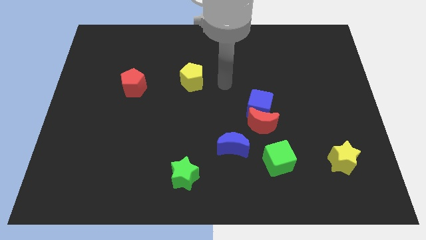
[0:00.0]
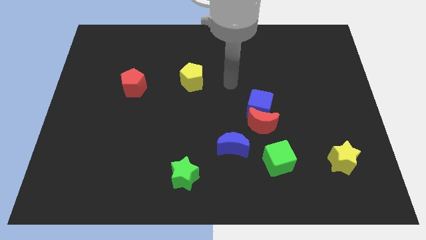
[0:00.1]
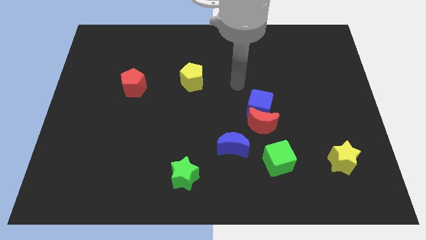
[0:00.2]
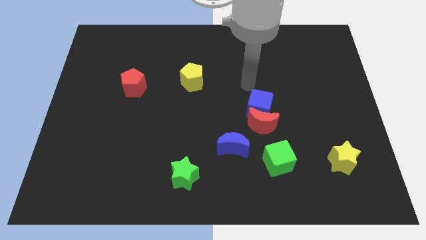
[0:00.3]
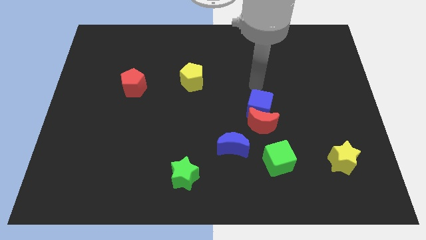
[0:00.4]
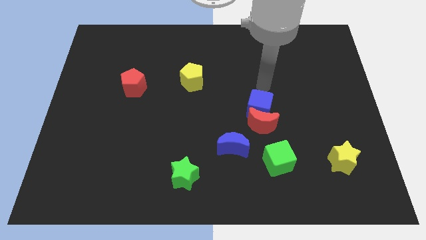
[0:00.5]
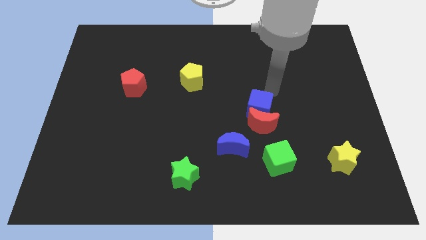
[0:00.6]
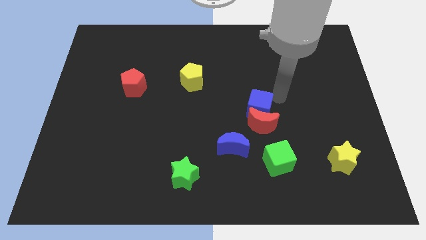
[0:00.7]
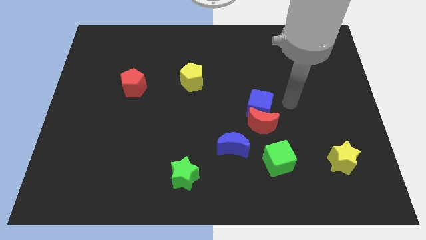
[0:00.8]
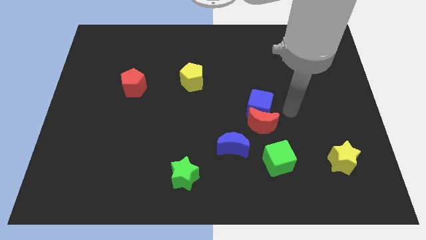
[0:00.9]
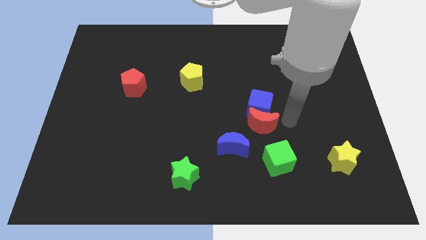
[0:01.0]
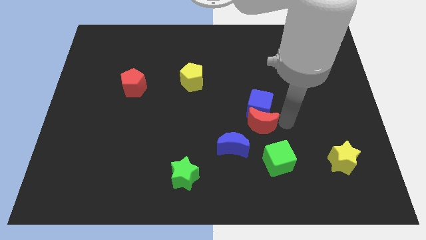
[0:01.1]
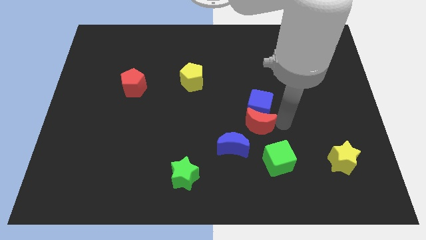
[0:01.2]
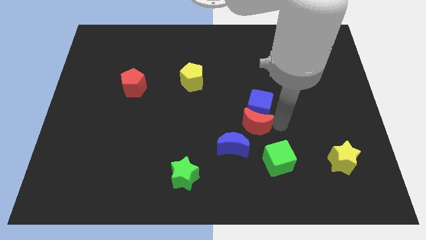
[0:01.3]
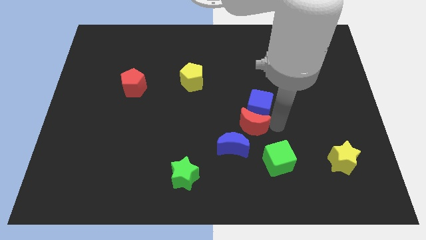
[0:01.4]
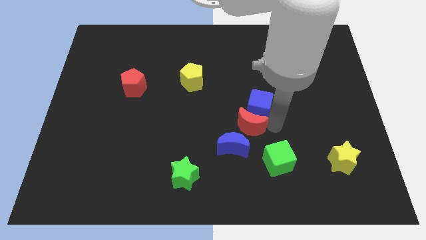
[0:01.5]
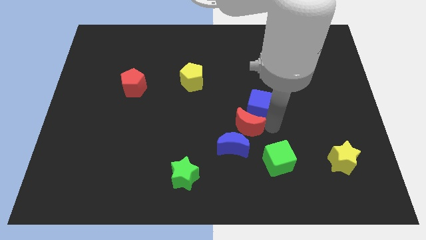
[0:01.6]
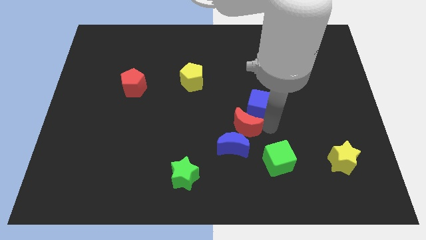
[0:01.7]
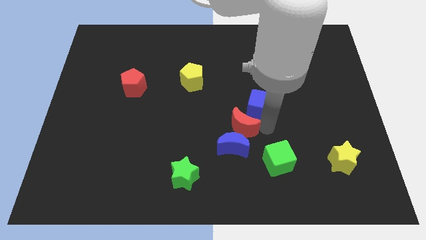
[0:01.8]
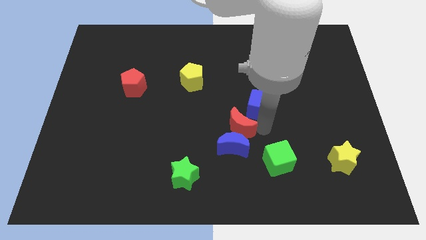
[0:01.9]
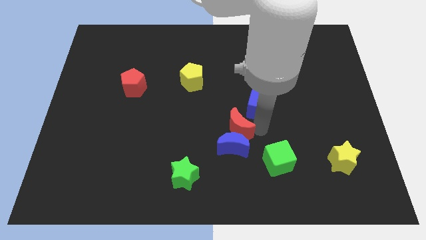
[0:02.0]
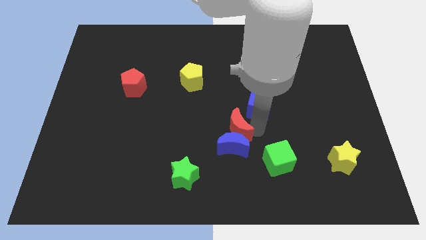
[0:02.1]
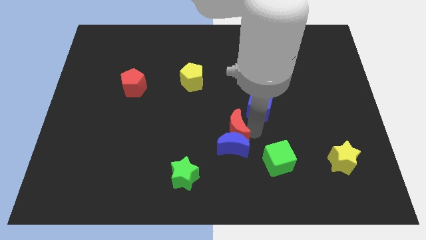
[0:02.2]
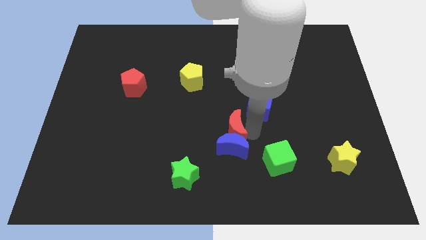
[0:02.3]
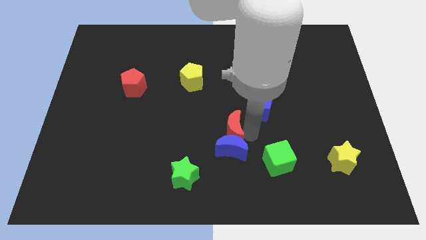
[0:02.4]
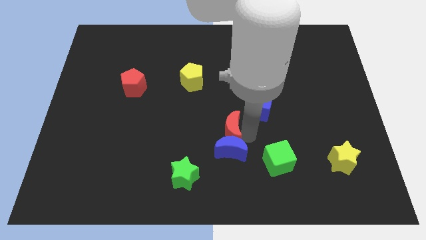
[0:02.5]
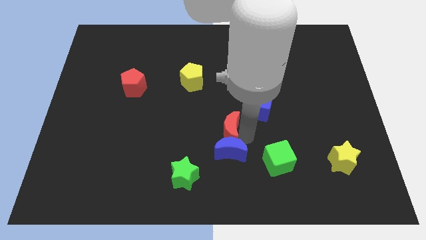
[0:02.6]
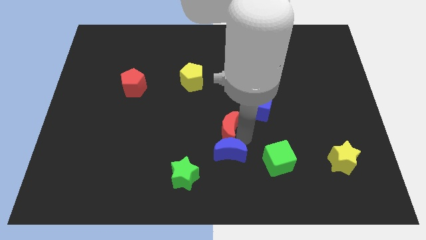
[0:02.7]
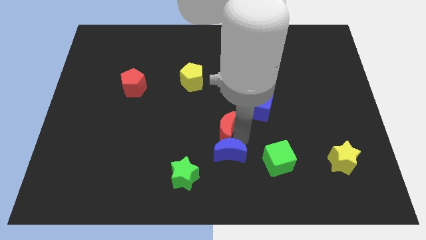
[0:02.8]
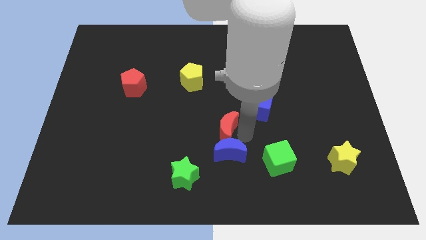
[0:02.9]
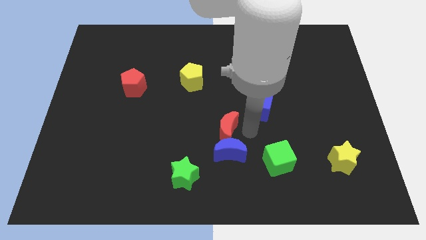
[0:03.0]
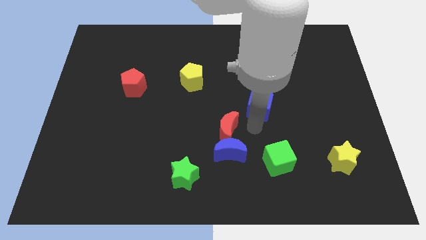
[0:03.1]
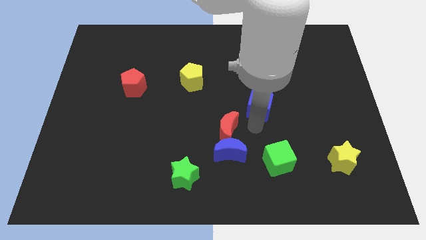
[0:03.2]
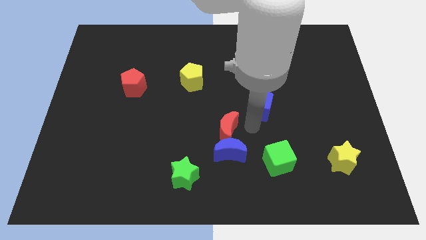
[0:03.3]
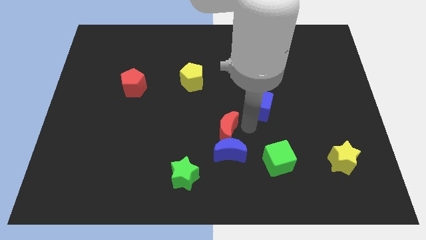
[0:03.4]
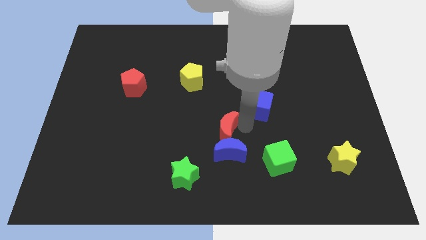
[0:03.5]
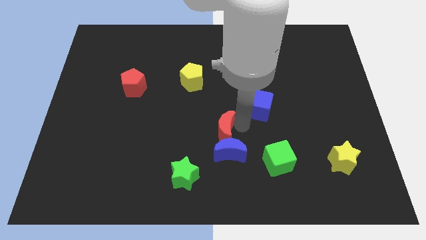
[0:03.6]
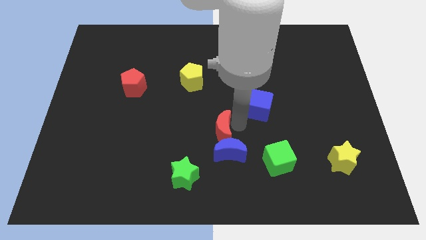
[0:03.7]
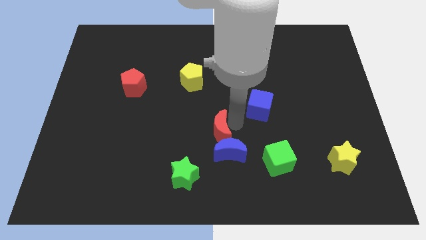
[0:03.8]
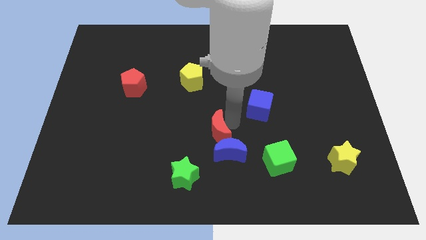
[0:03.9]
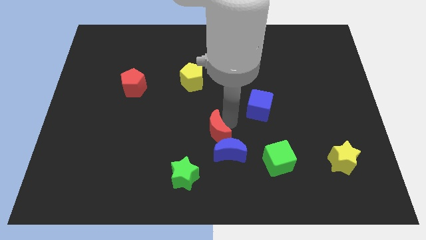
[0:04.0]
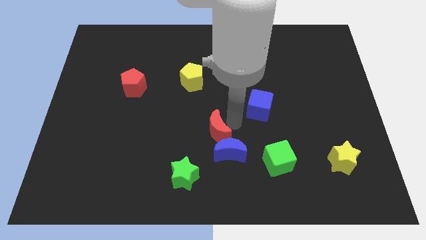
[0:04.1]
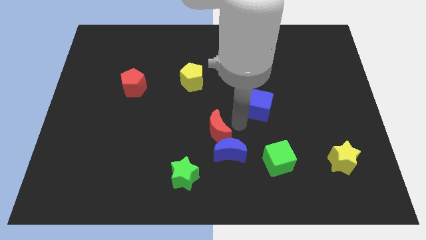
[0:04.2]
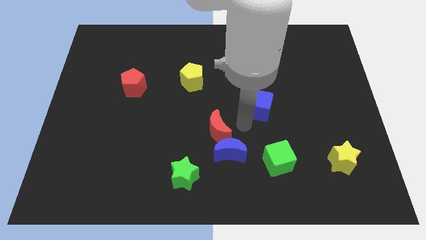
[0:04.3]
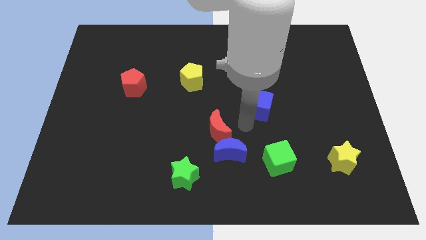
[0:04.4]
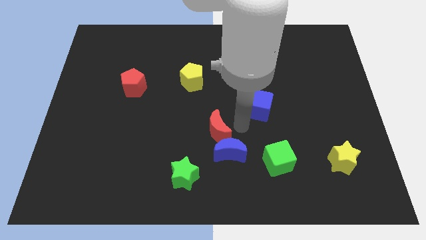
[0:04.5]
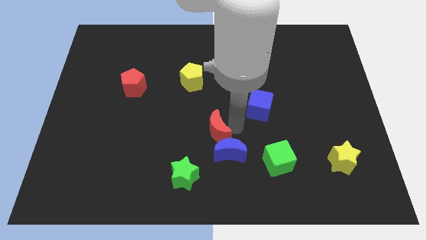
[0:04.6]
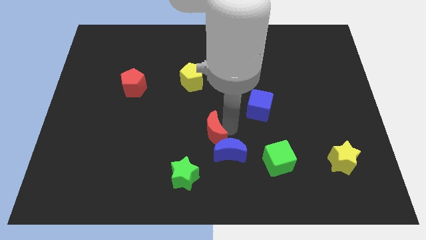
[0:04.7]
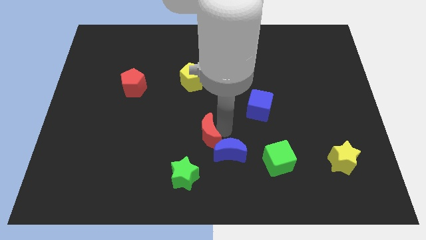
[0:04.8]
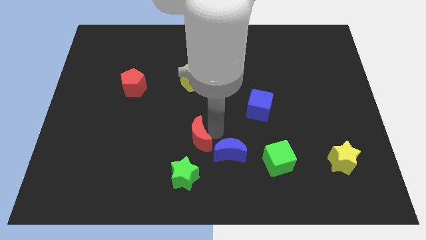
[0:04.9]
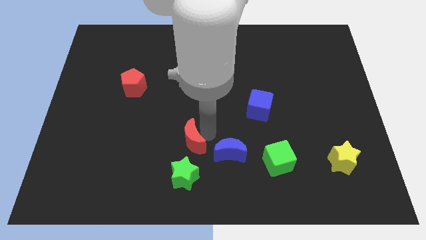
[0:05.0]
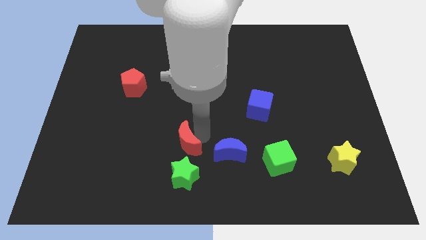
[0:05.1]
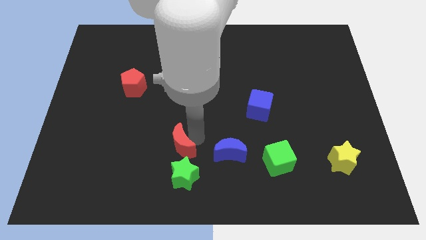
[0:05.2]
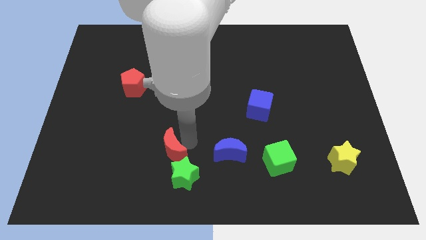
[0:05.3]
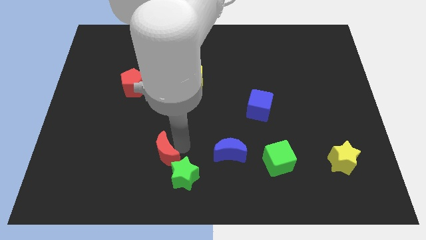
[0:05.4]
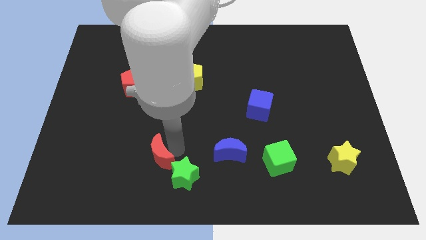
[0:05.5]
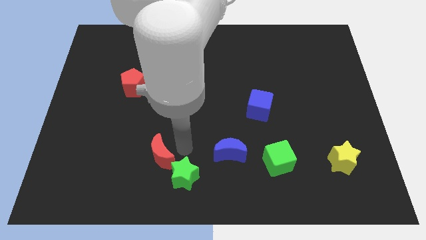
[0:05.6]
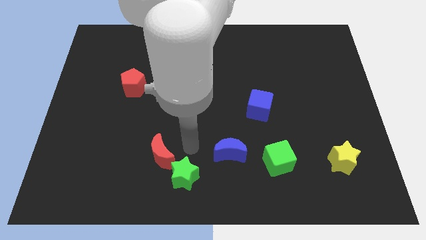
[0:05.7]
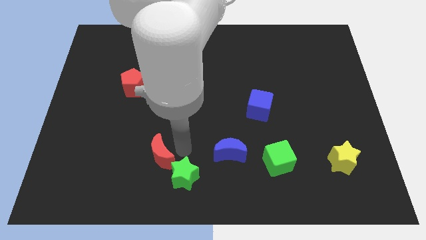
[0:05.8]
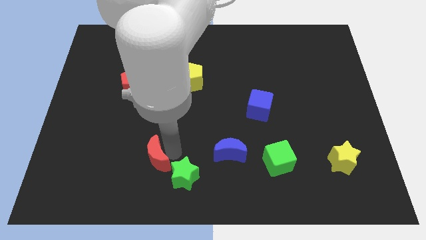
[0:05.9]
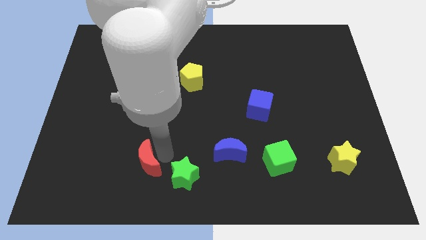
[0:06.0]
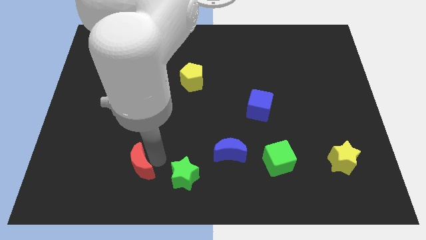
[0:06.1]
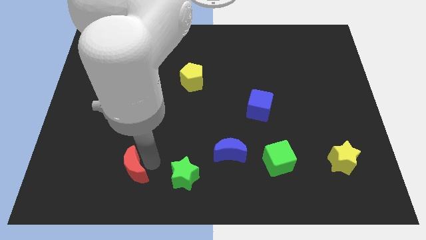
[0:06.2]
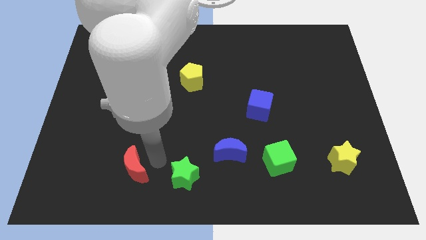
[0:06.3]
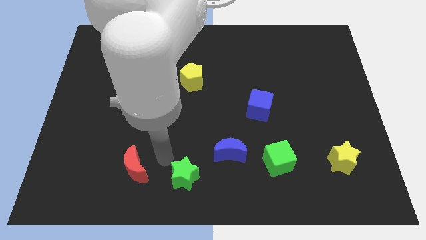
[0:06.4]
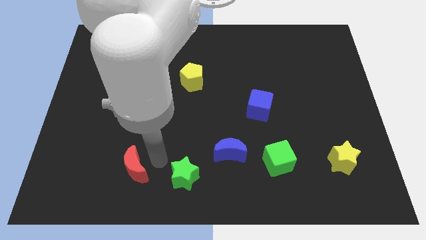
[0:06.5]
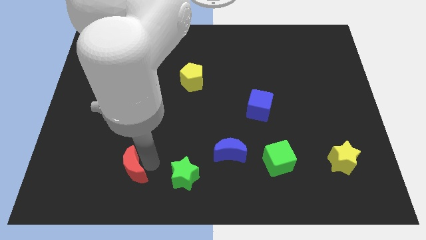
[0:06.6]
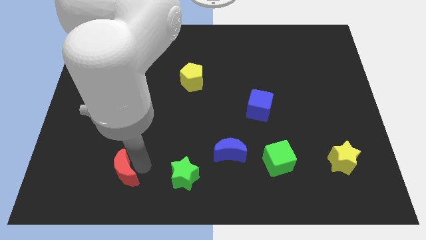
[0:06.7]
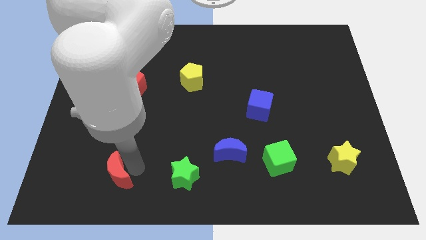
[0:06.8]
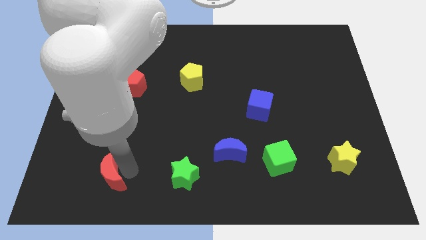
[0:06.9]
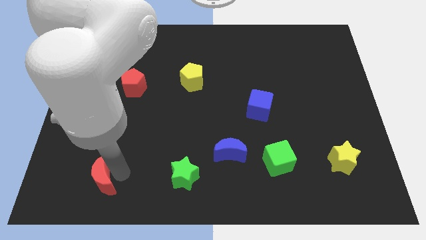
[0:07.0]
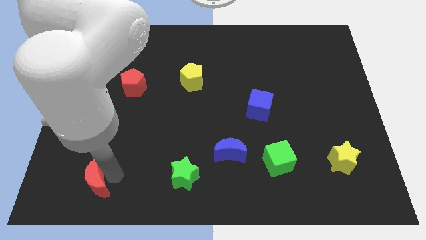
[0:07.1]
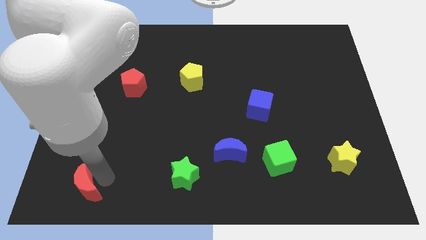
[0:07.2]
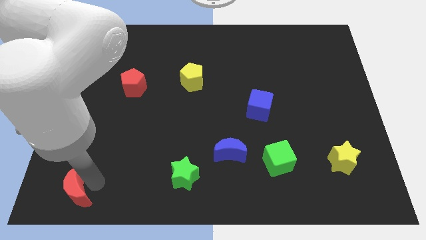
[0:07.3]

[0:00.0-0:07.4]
move the red moon to the bottom left of the board
